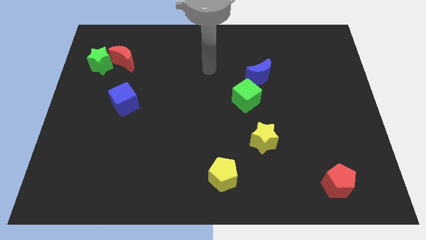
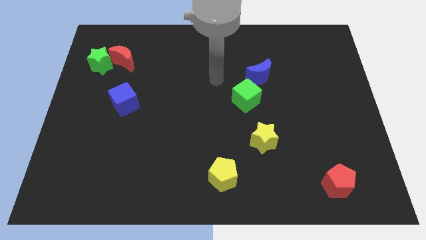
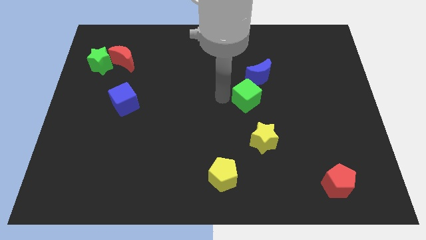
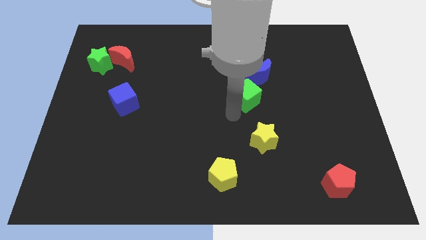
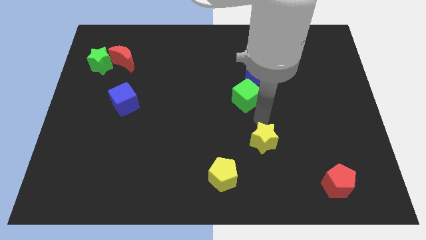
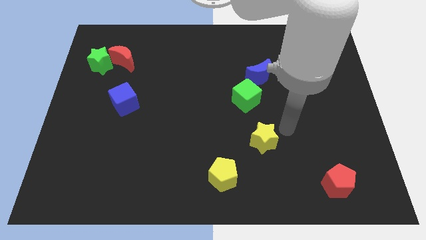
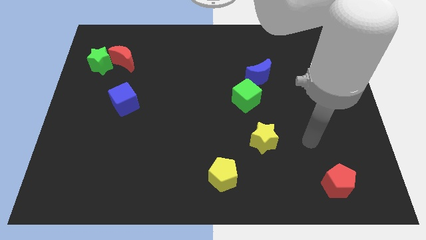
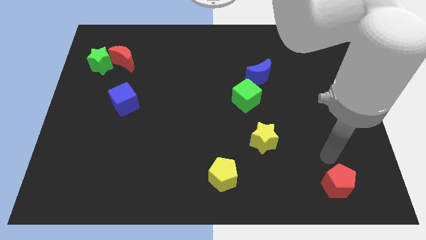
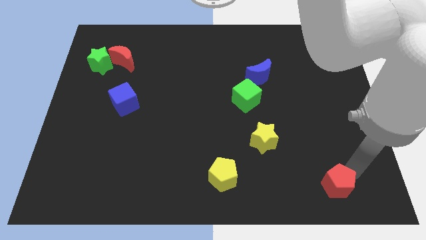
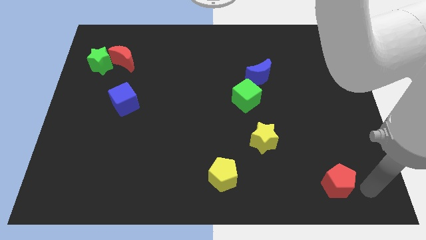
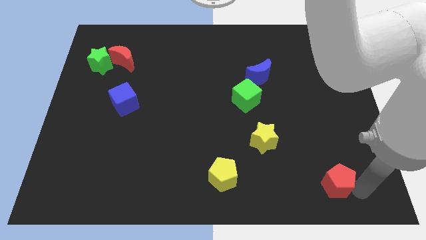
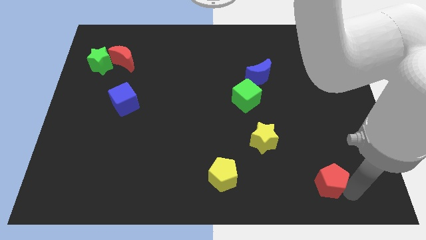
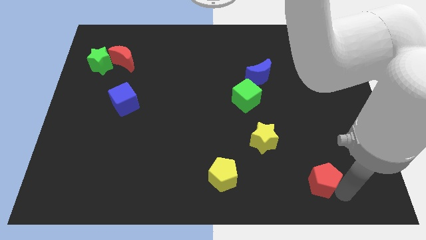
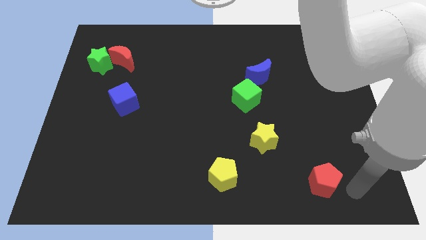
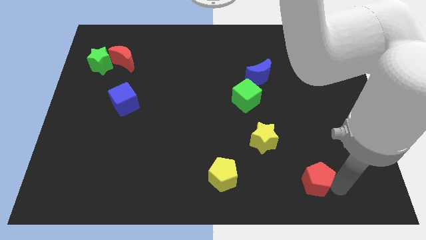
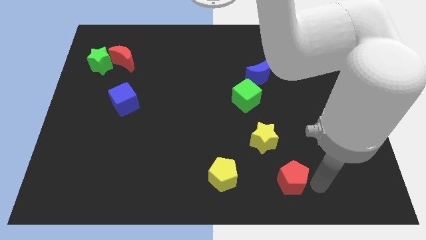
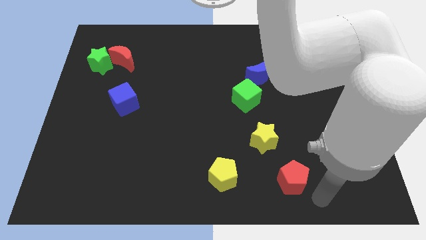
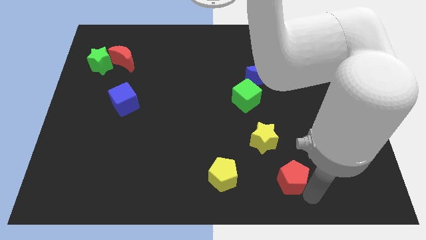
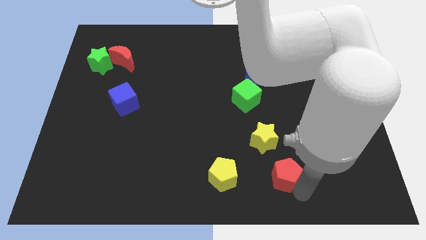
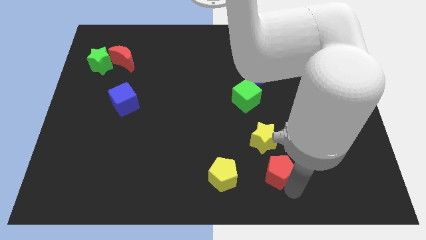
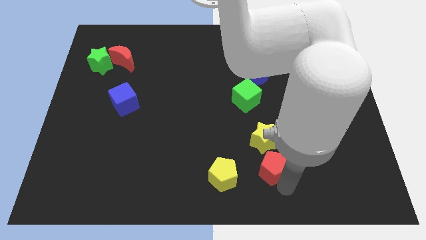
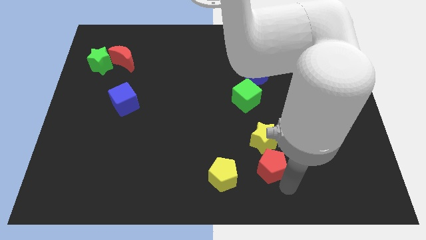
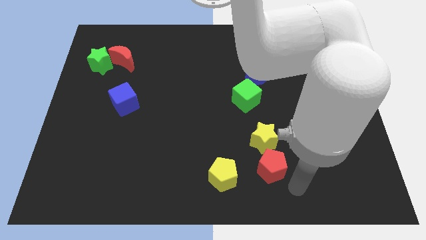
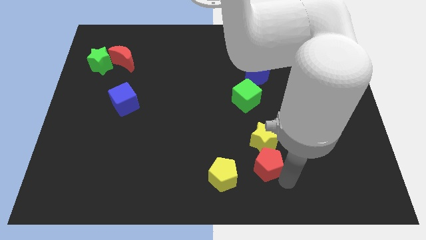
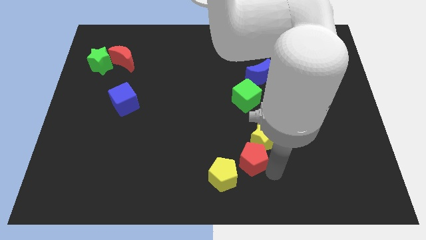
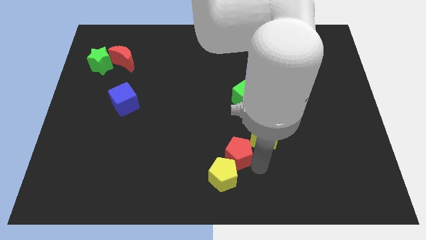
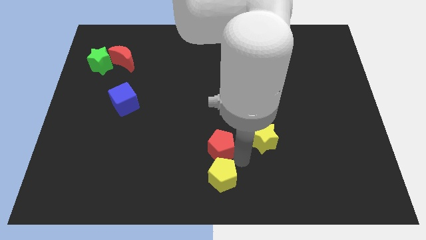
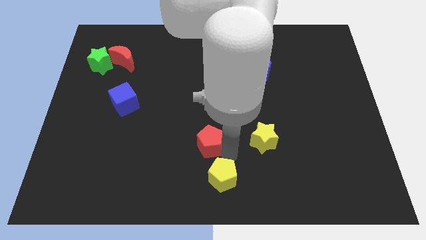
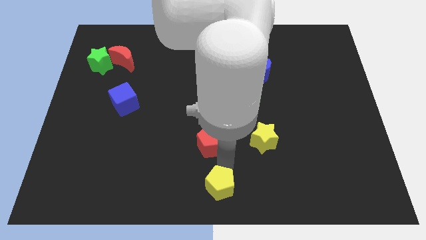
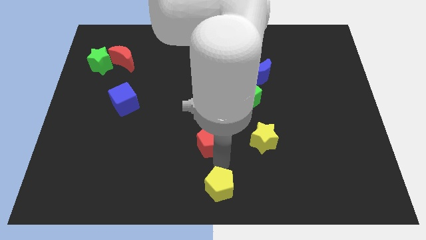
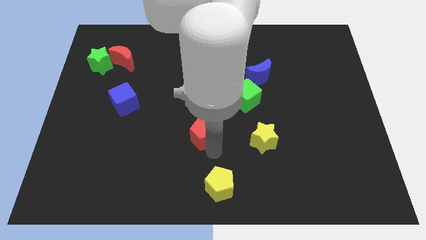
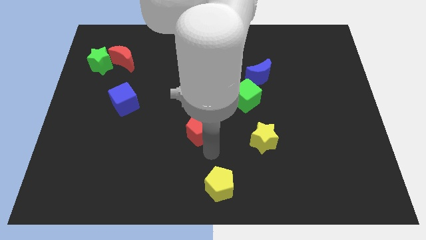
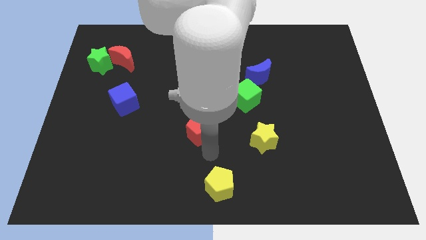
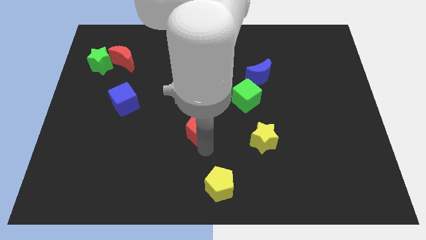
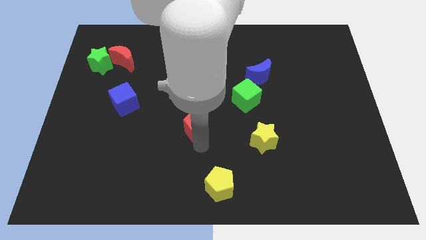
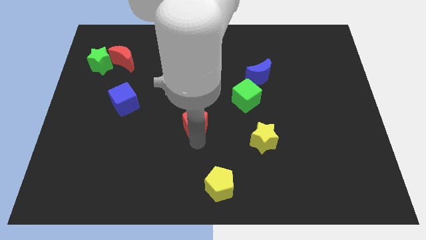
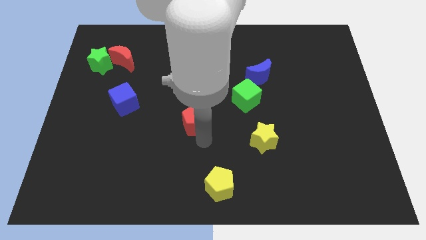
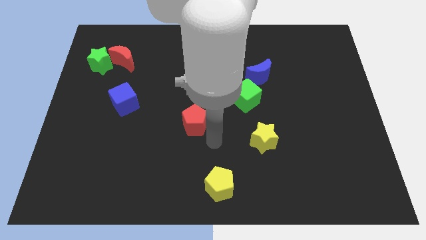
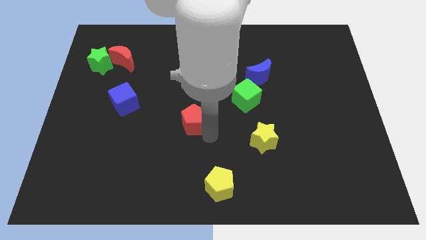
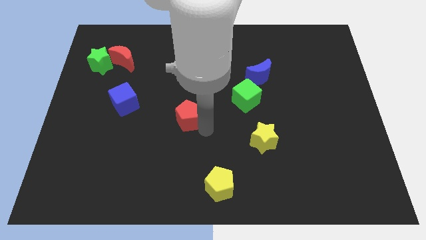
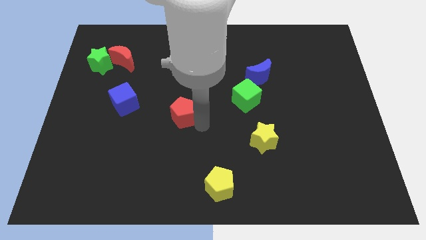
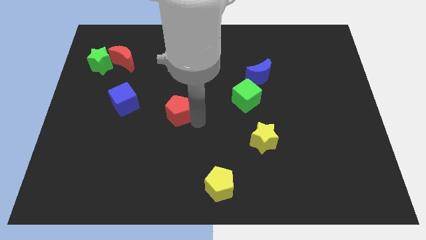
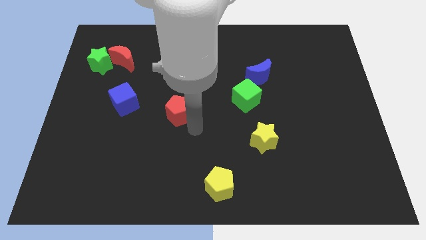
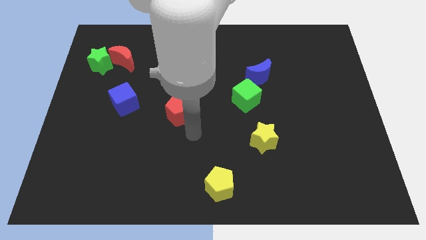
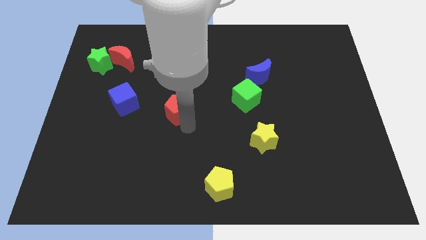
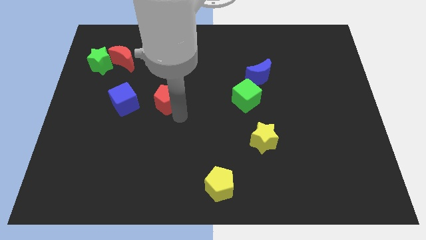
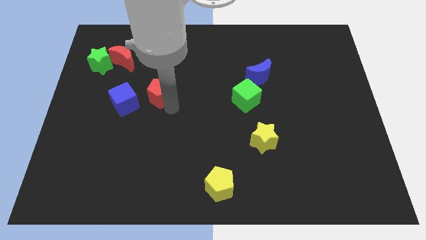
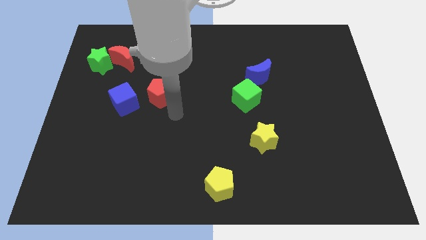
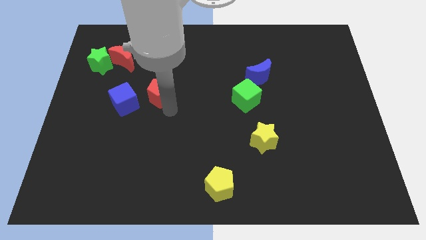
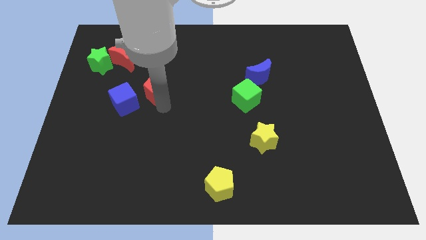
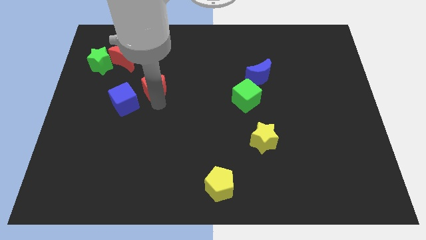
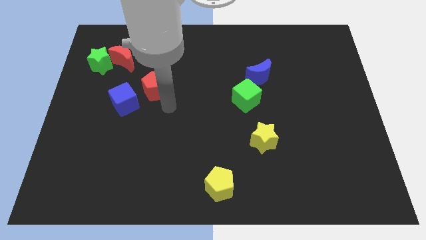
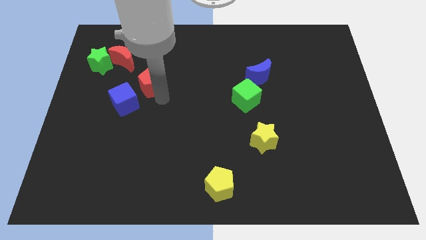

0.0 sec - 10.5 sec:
push the red pentagon diagonally down and to the right of the red moon

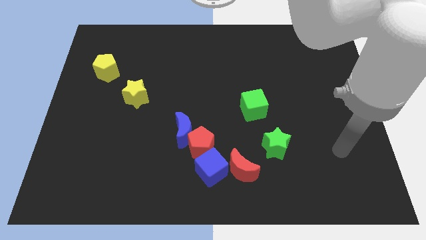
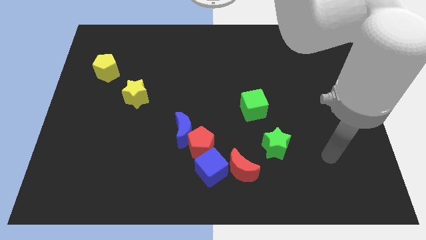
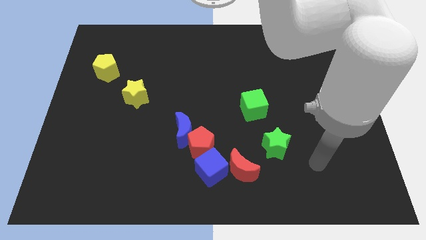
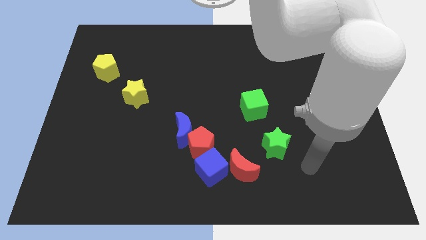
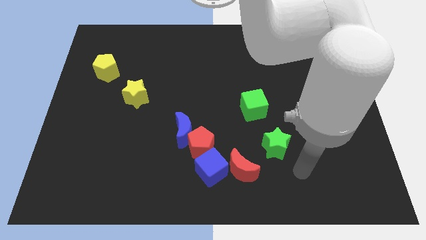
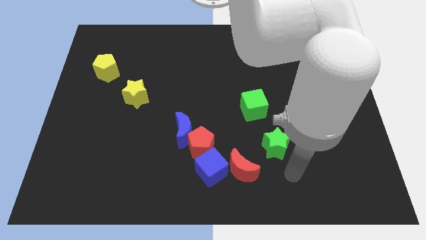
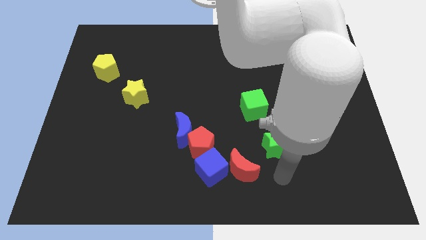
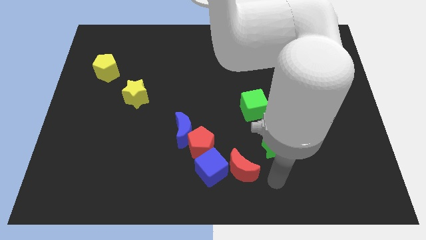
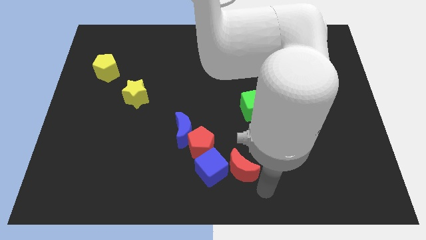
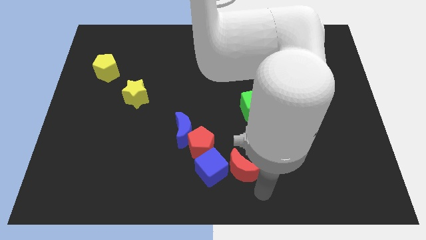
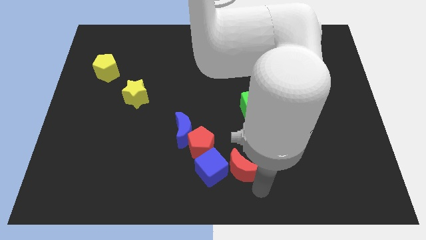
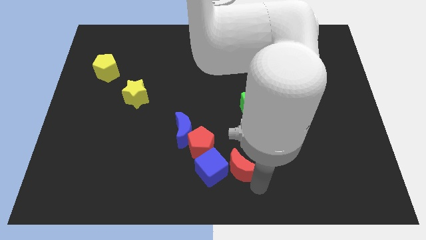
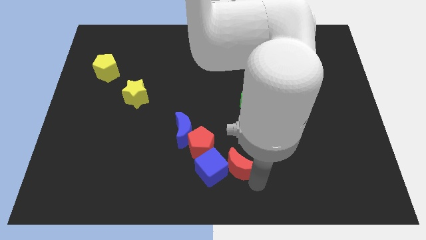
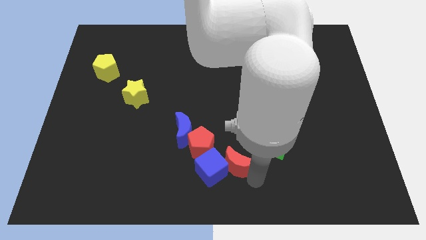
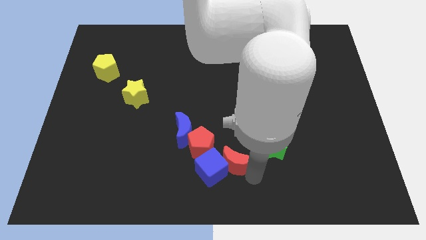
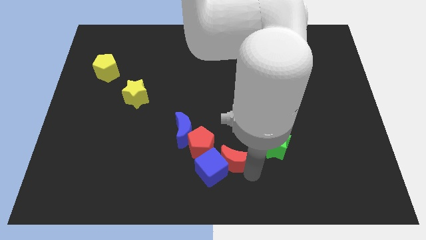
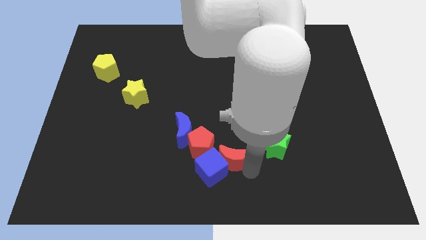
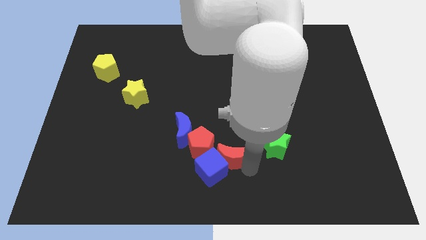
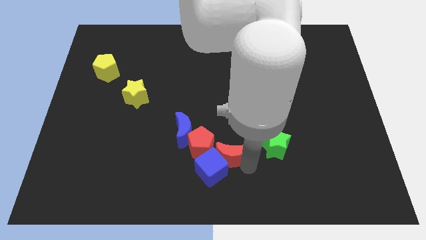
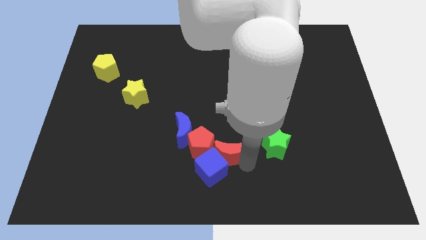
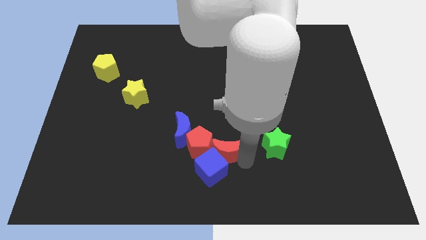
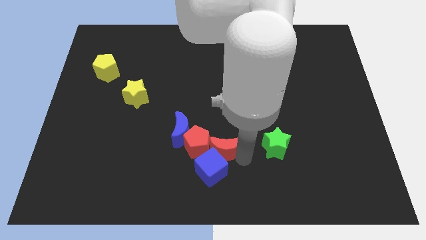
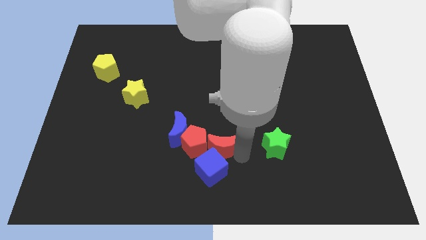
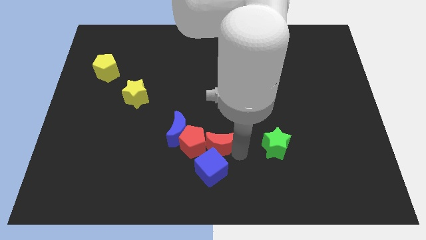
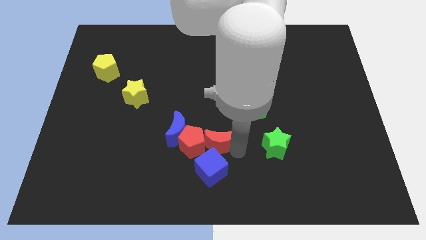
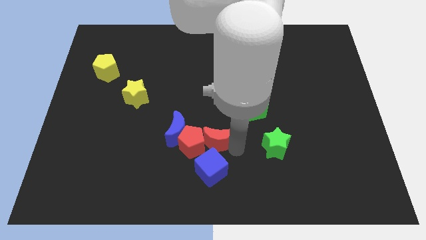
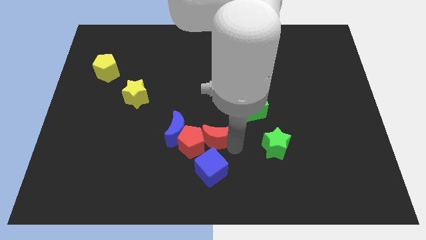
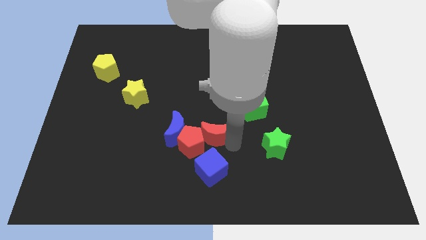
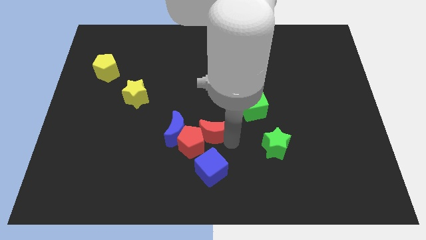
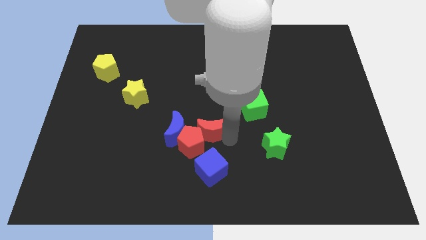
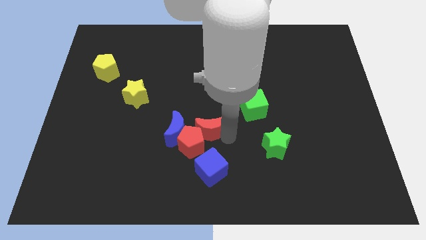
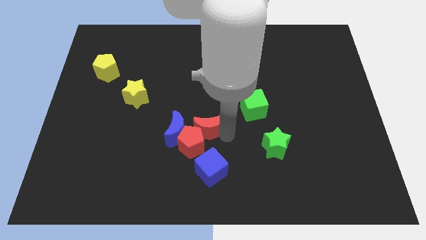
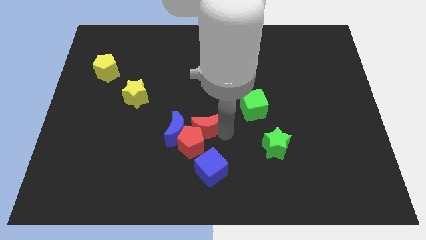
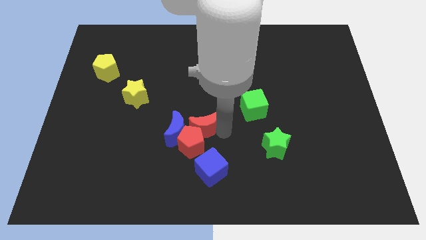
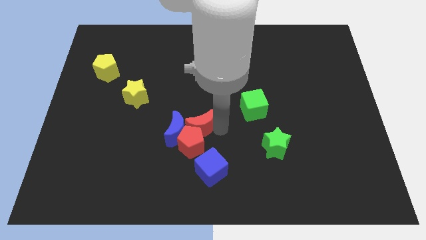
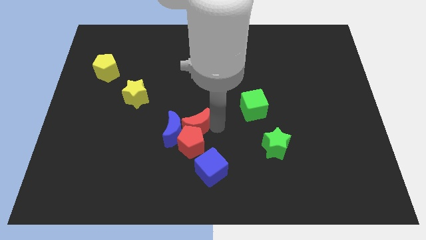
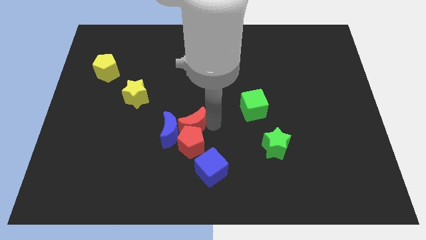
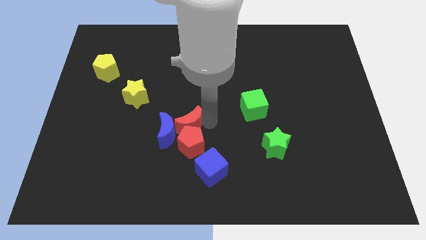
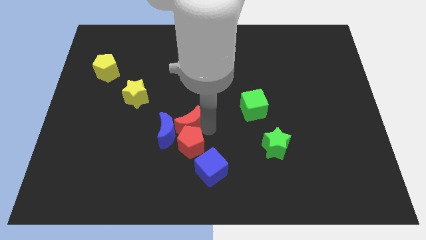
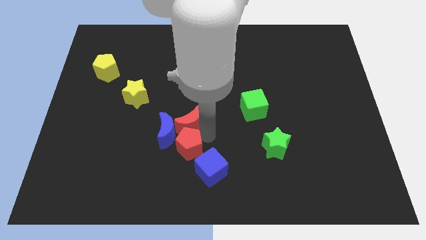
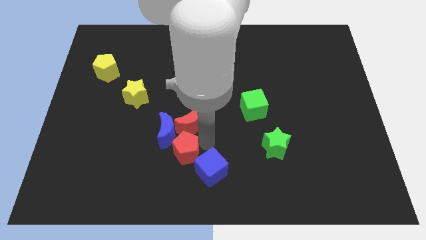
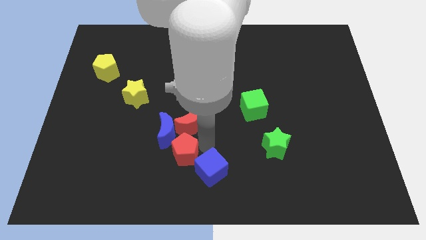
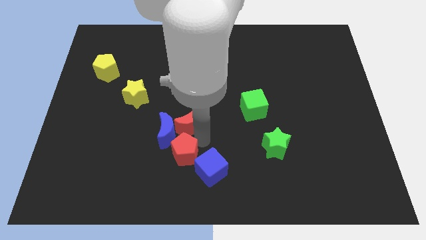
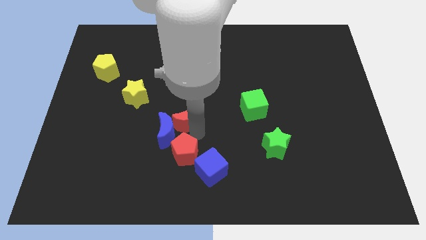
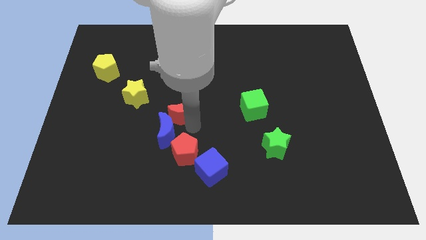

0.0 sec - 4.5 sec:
put the red moon to the top of the blue moon
